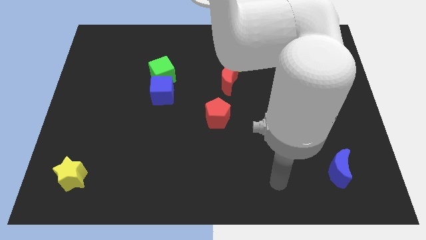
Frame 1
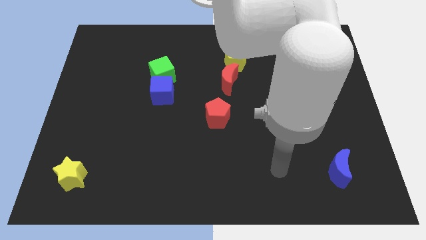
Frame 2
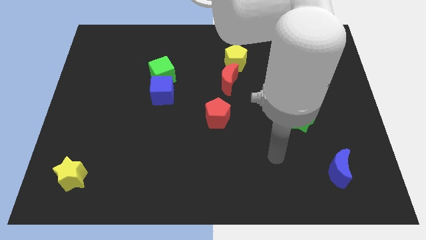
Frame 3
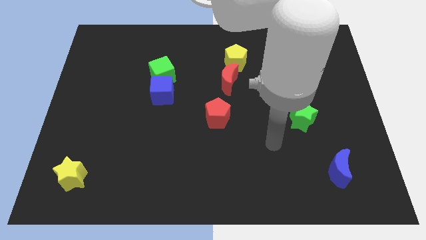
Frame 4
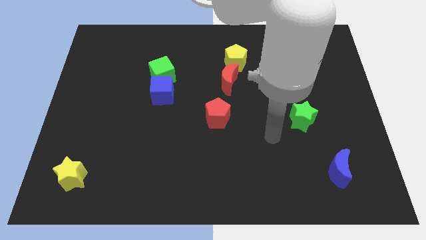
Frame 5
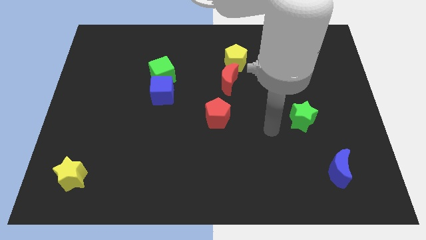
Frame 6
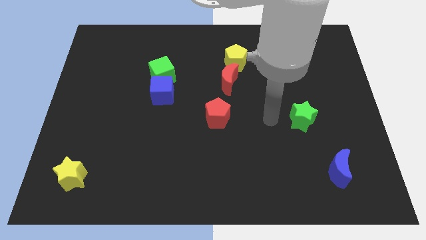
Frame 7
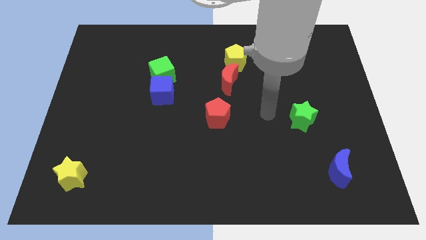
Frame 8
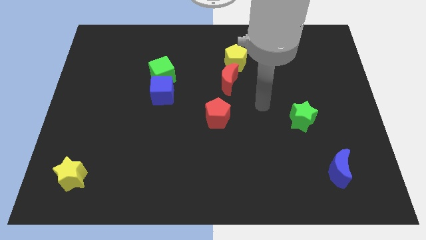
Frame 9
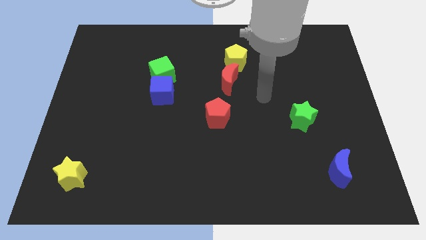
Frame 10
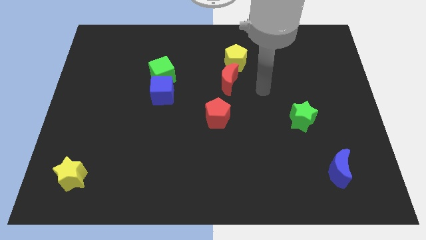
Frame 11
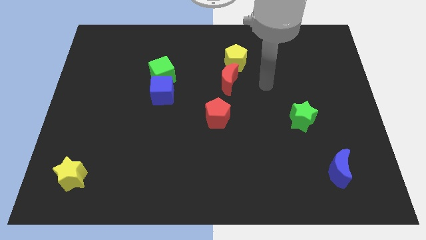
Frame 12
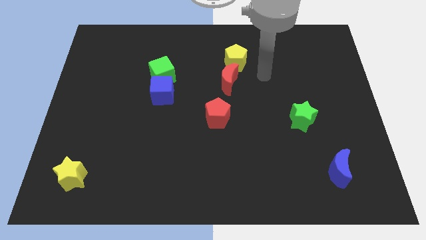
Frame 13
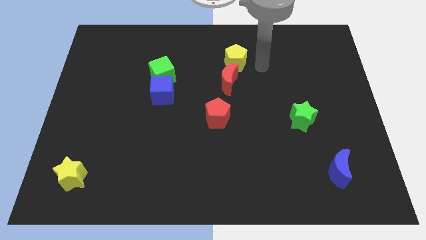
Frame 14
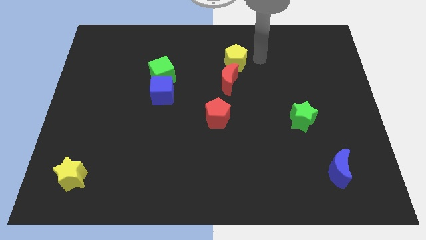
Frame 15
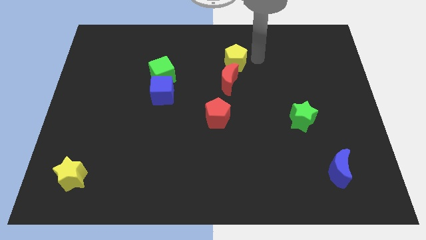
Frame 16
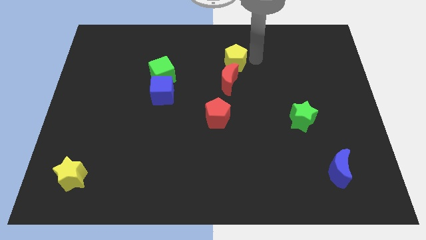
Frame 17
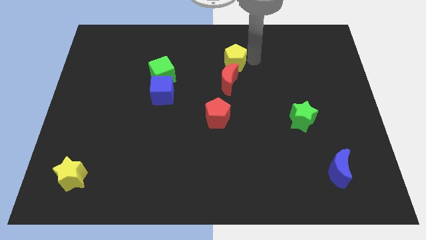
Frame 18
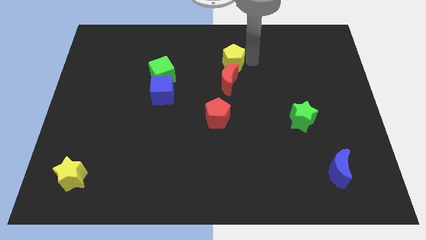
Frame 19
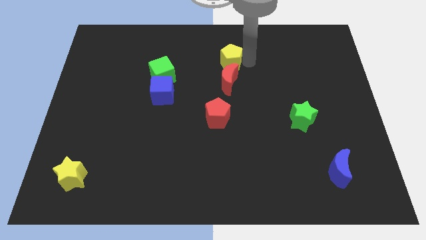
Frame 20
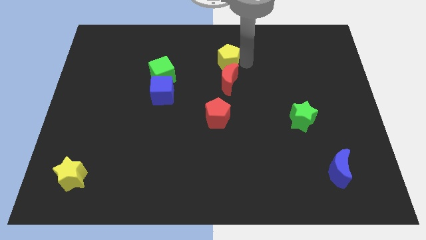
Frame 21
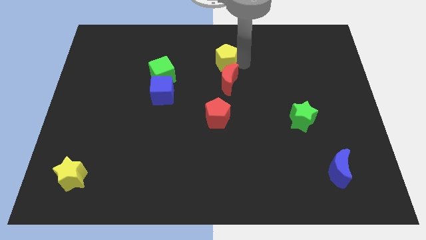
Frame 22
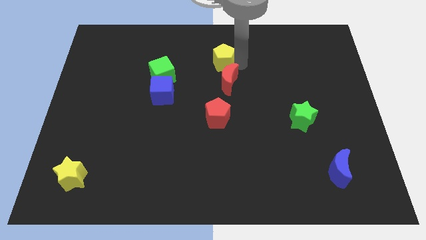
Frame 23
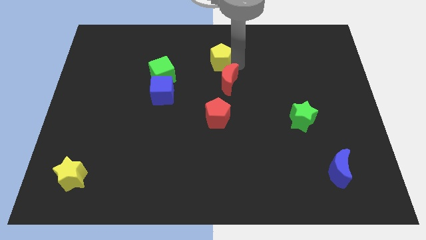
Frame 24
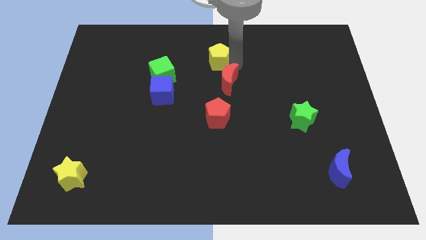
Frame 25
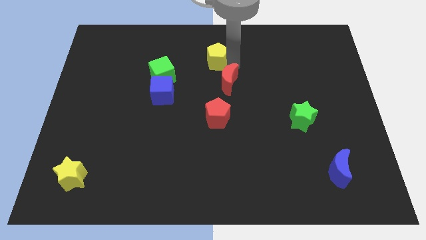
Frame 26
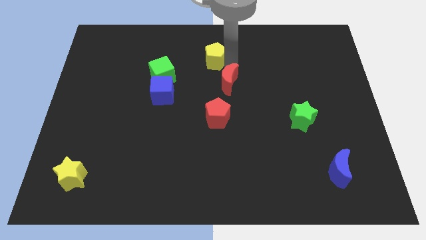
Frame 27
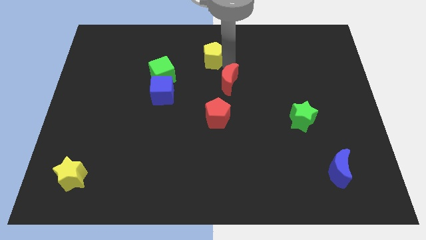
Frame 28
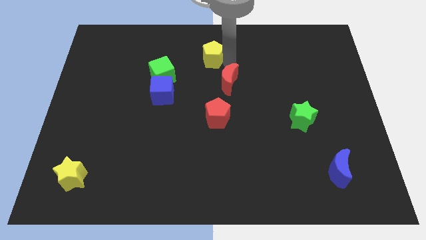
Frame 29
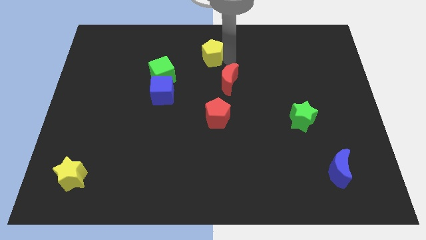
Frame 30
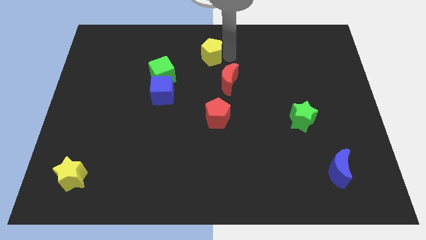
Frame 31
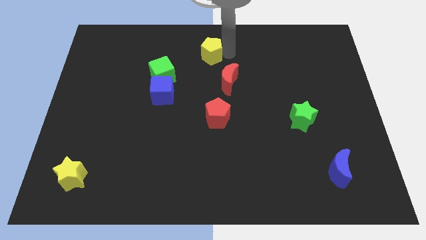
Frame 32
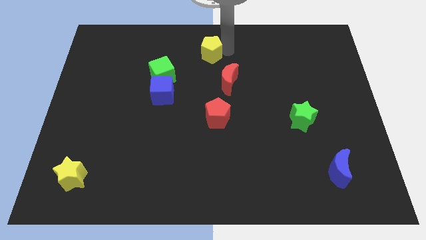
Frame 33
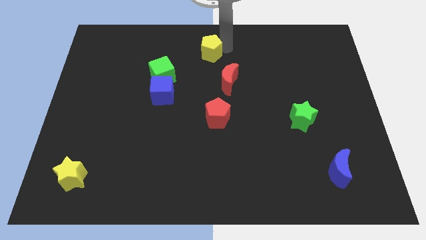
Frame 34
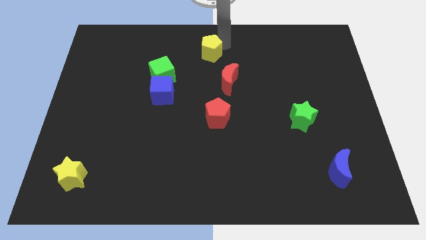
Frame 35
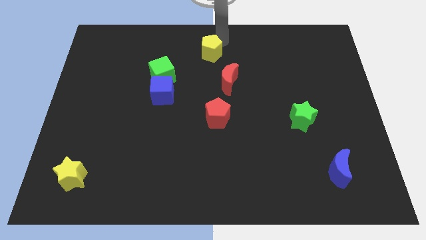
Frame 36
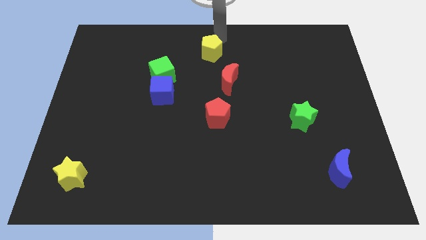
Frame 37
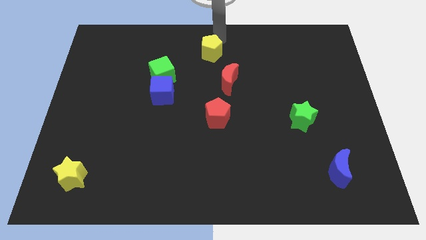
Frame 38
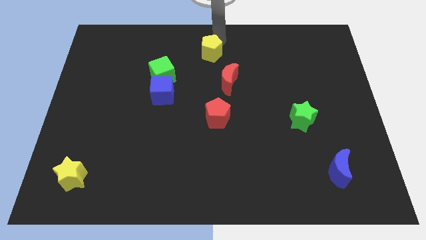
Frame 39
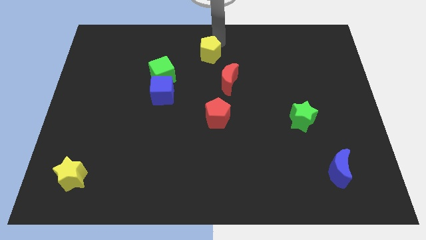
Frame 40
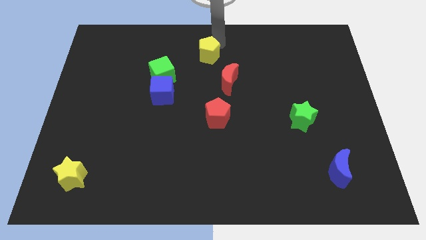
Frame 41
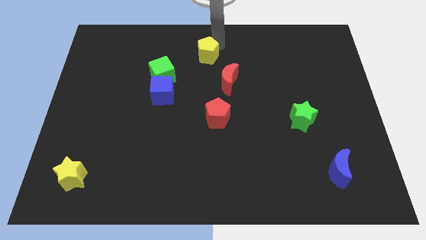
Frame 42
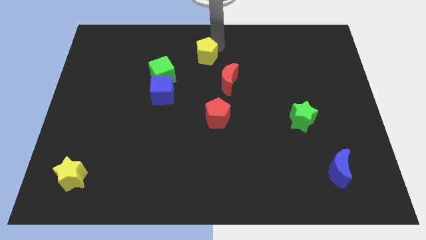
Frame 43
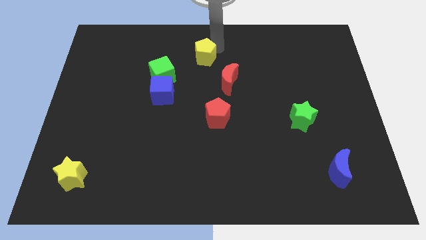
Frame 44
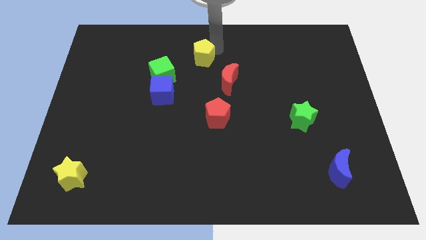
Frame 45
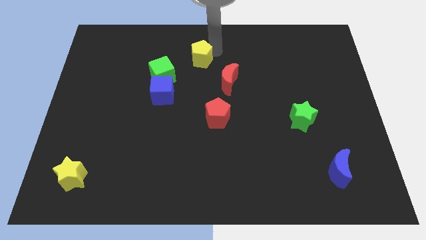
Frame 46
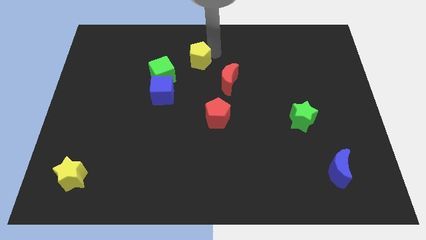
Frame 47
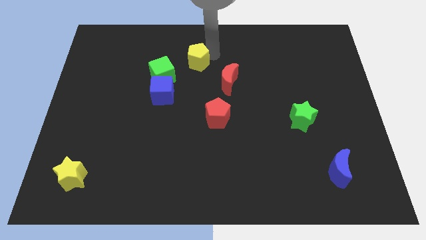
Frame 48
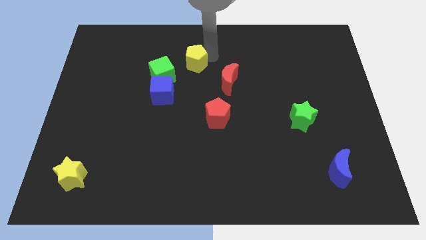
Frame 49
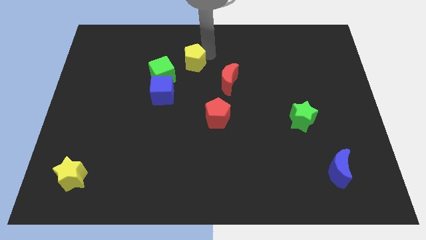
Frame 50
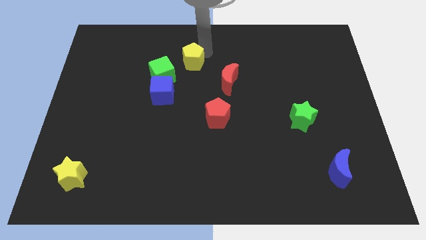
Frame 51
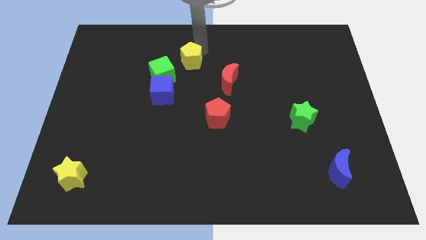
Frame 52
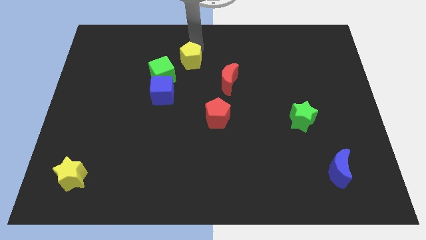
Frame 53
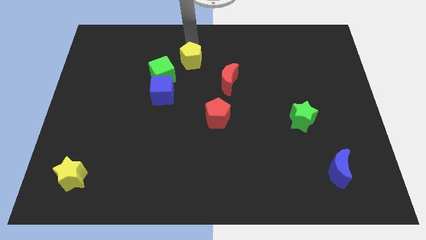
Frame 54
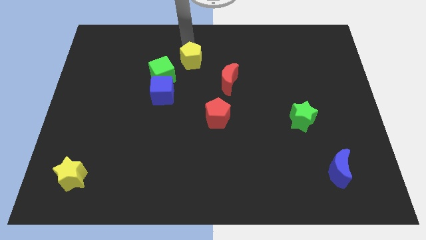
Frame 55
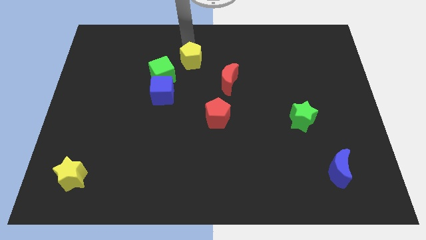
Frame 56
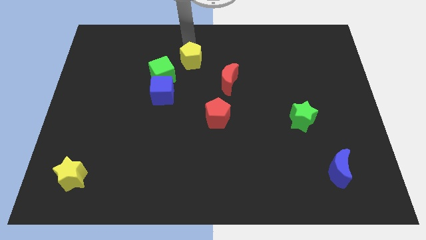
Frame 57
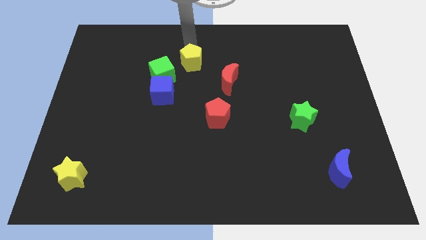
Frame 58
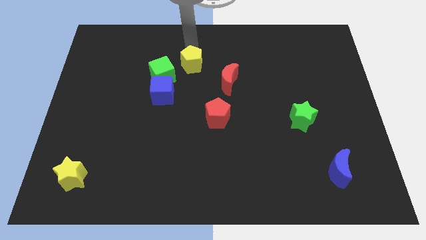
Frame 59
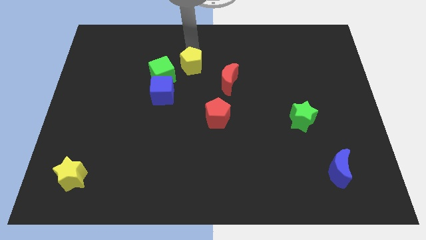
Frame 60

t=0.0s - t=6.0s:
slightly push the yellow pentagon down and to the left diagonally

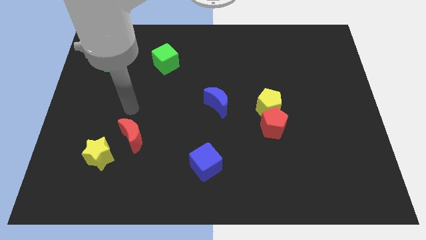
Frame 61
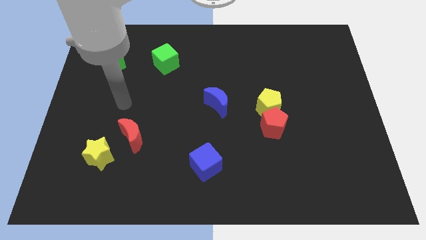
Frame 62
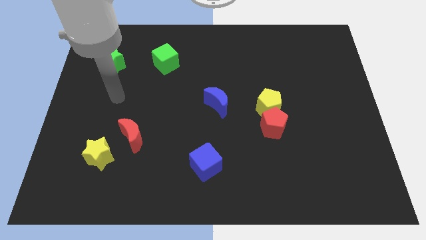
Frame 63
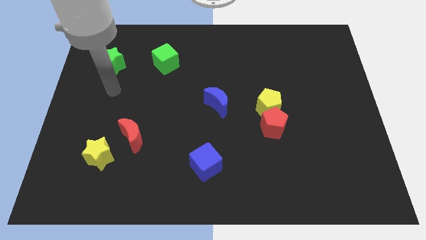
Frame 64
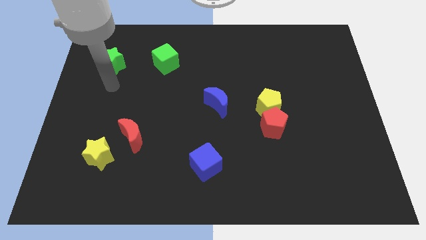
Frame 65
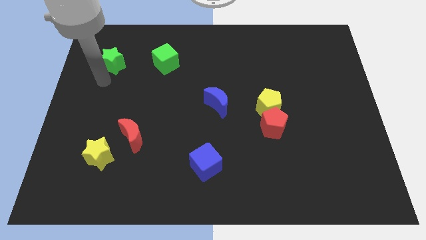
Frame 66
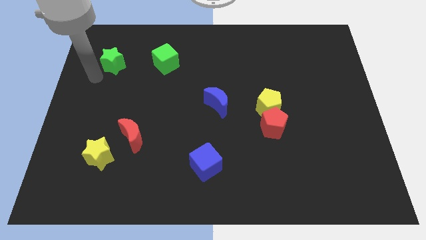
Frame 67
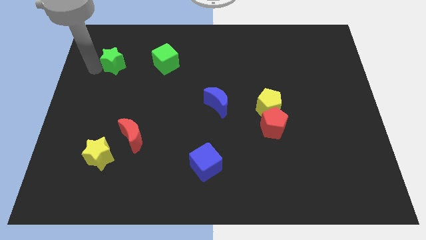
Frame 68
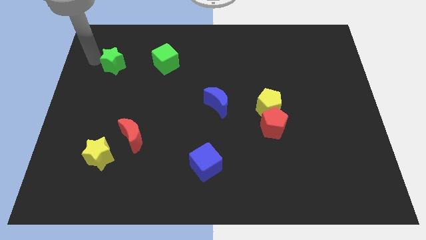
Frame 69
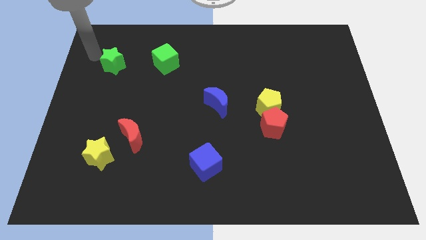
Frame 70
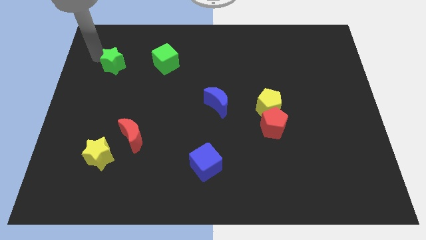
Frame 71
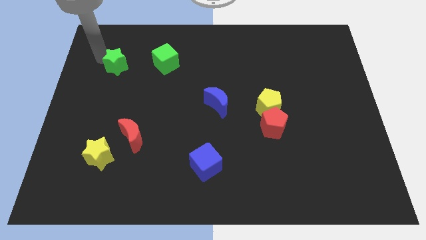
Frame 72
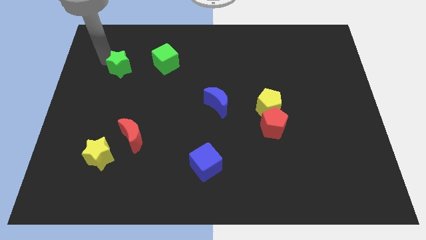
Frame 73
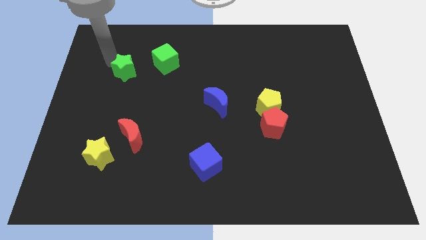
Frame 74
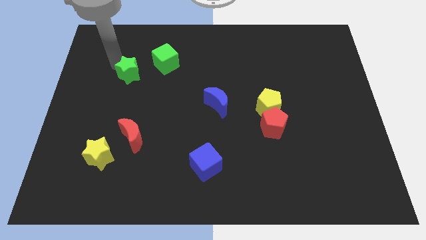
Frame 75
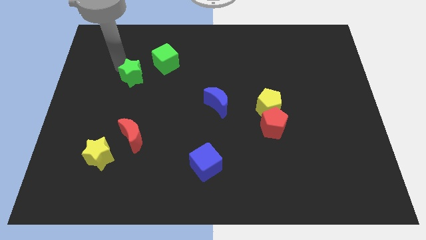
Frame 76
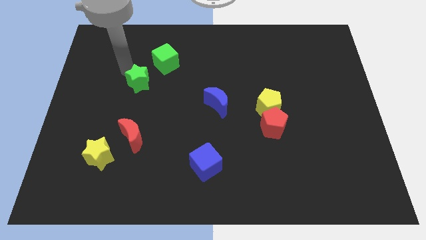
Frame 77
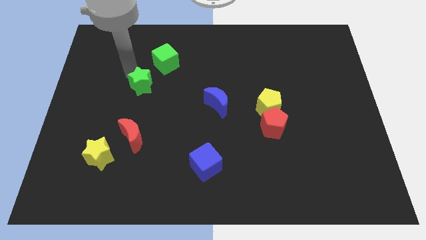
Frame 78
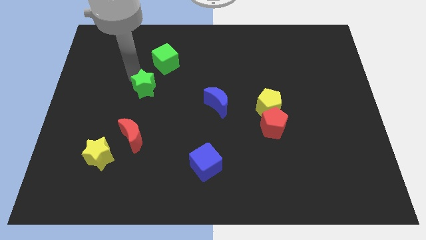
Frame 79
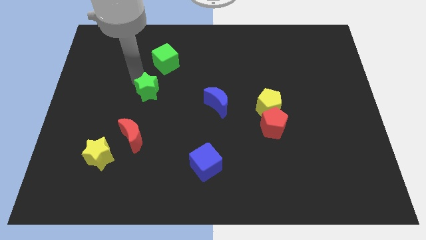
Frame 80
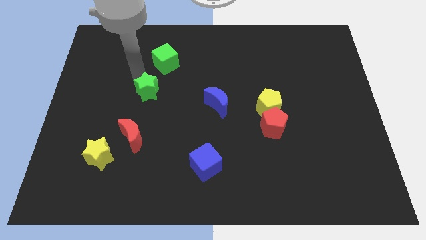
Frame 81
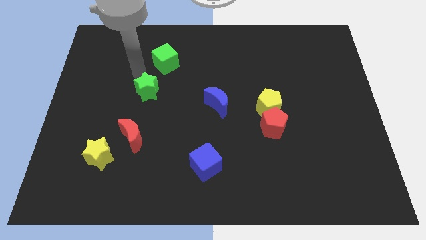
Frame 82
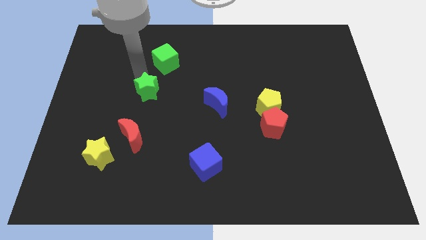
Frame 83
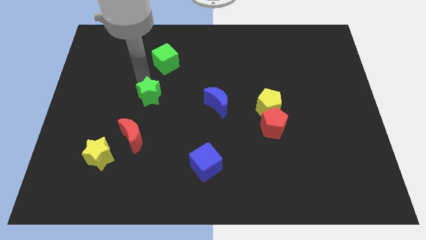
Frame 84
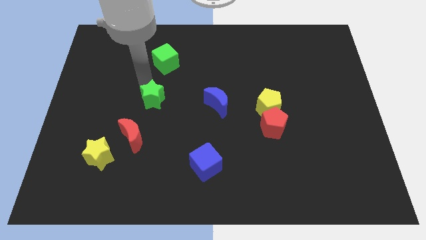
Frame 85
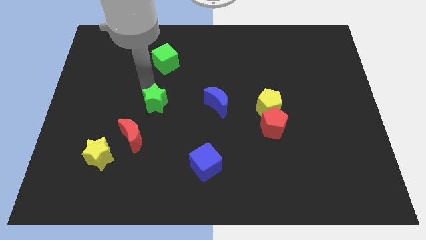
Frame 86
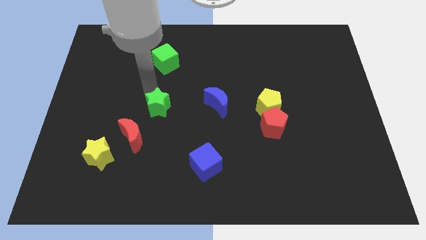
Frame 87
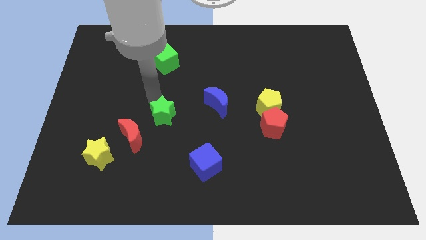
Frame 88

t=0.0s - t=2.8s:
move the green star down and to the right diagonally
